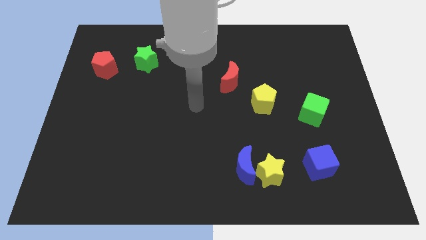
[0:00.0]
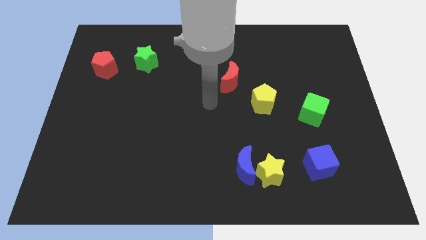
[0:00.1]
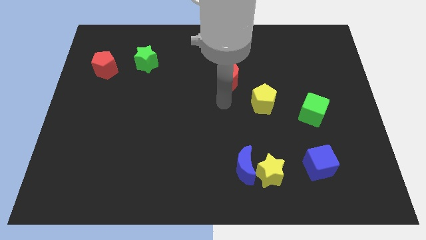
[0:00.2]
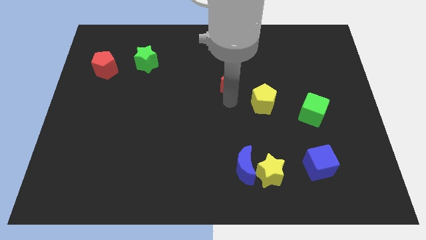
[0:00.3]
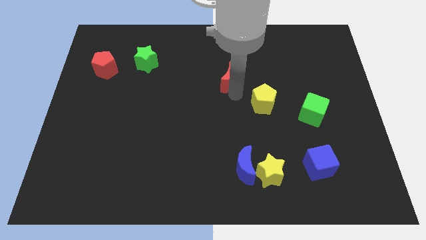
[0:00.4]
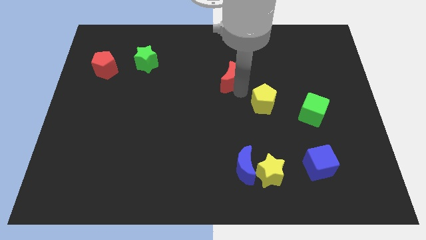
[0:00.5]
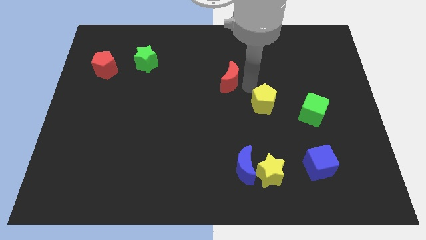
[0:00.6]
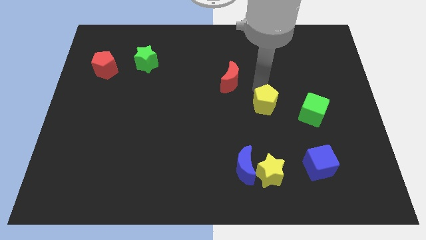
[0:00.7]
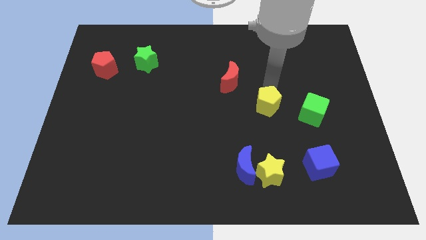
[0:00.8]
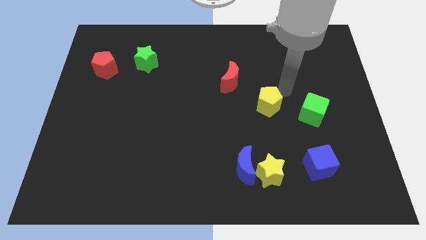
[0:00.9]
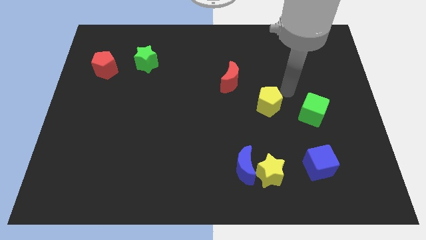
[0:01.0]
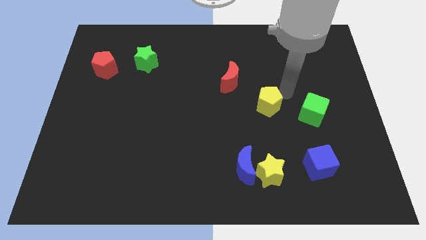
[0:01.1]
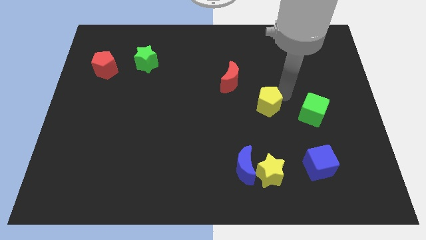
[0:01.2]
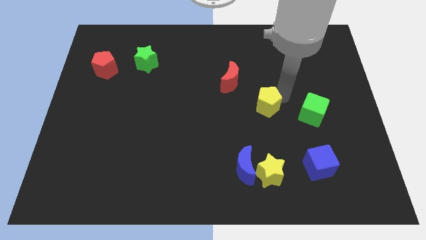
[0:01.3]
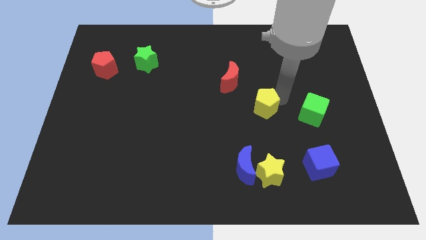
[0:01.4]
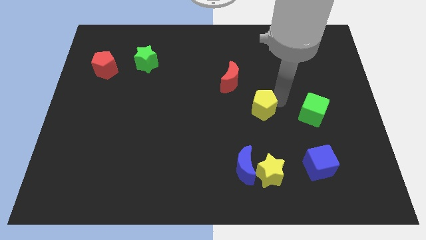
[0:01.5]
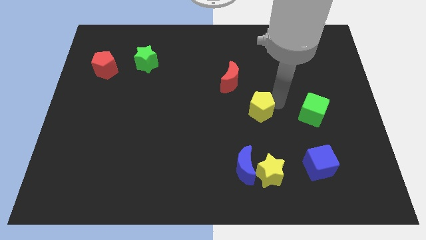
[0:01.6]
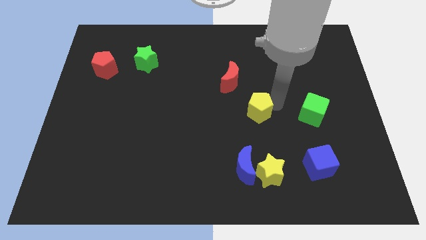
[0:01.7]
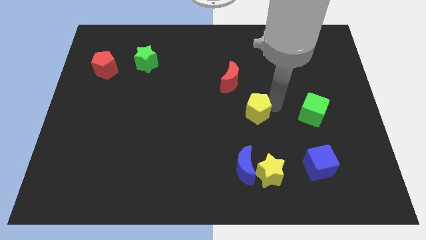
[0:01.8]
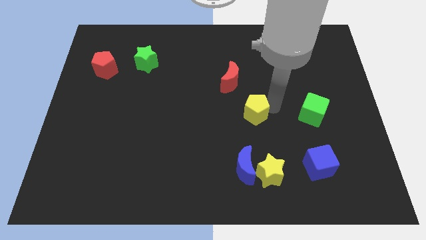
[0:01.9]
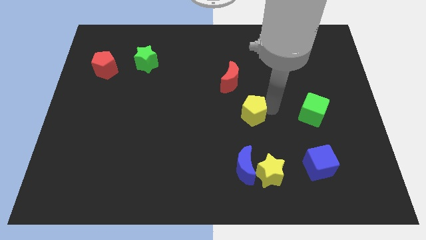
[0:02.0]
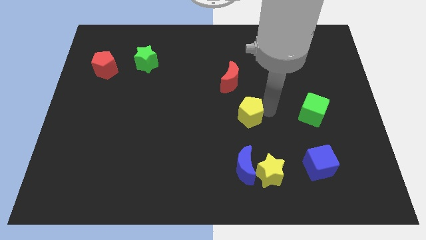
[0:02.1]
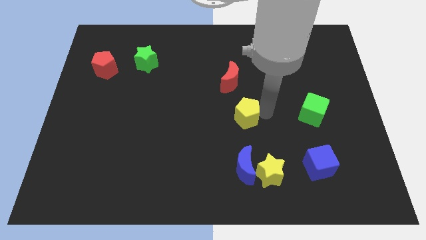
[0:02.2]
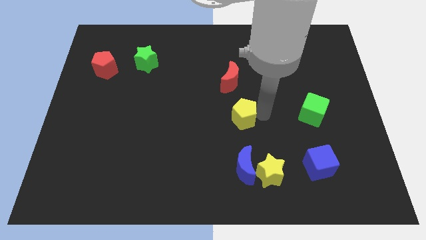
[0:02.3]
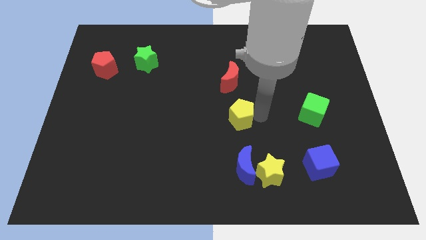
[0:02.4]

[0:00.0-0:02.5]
move the yellow pentagon diagonally down and left a little bit

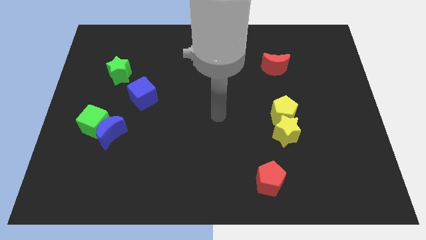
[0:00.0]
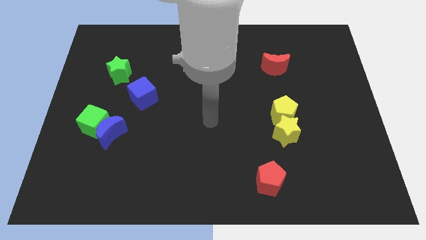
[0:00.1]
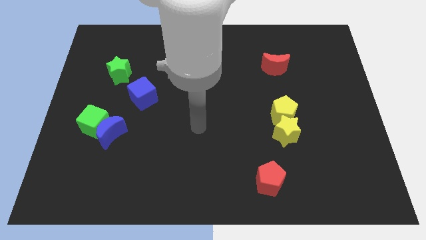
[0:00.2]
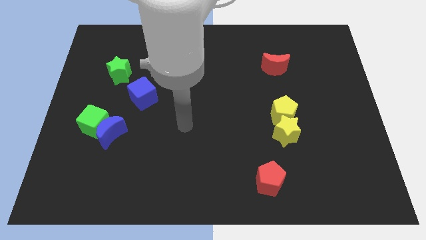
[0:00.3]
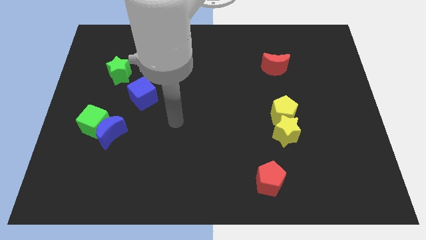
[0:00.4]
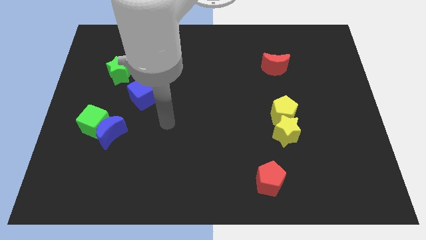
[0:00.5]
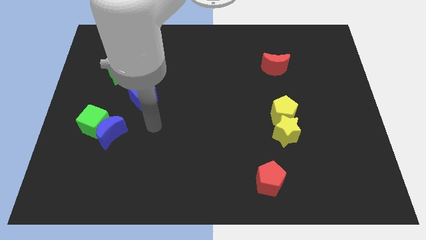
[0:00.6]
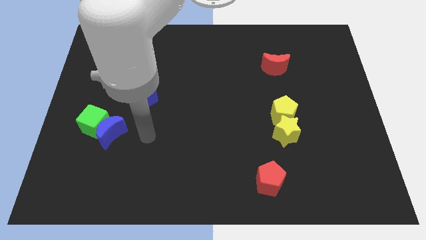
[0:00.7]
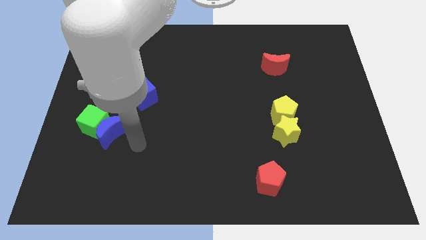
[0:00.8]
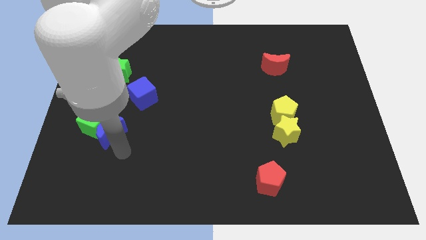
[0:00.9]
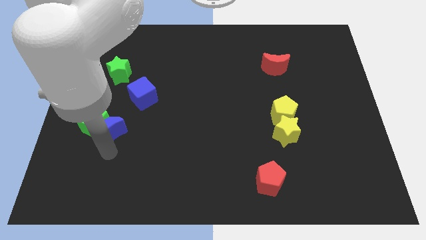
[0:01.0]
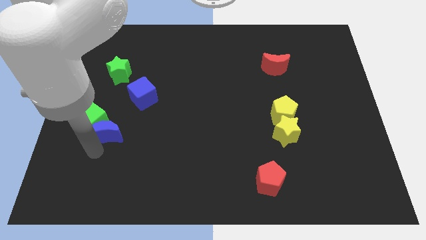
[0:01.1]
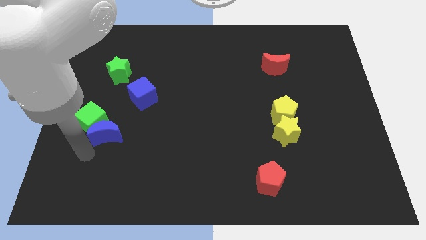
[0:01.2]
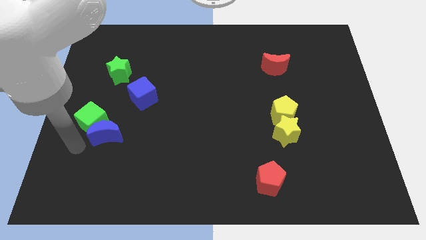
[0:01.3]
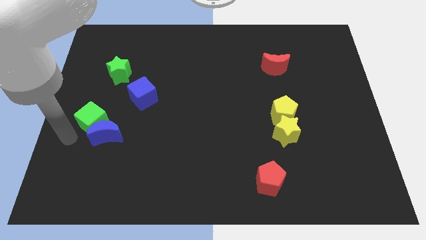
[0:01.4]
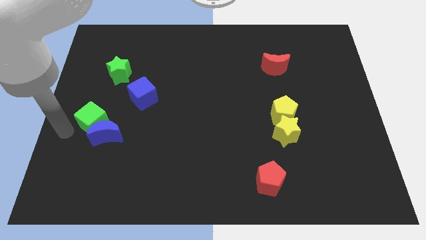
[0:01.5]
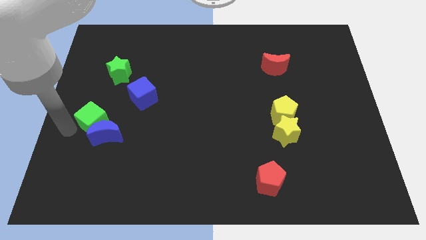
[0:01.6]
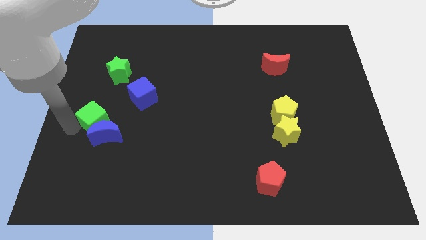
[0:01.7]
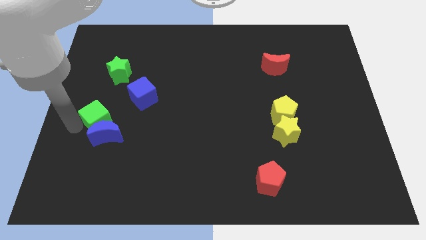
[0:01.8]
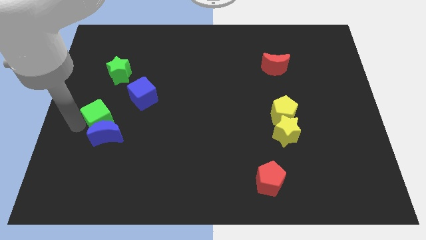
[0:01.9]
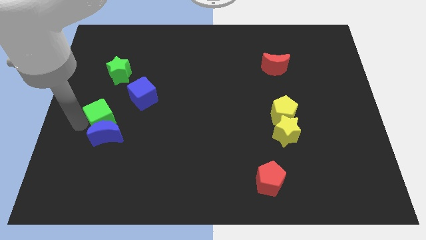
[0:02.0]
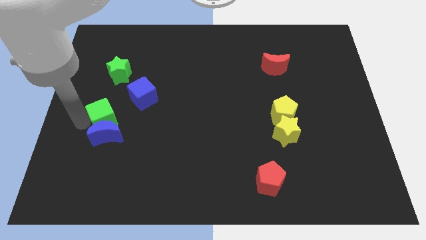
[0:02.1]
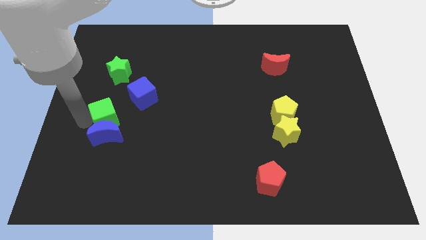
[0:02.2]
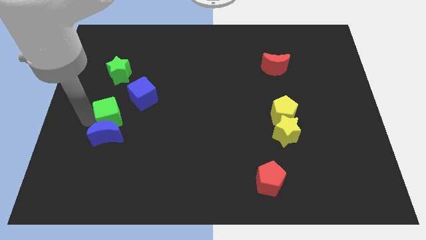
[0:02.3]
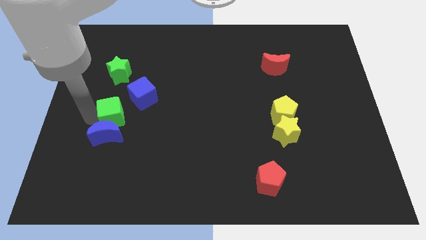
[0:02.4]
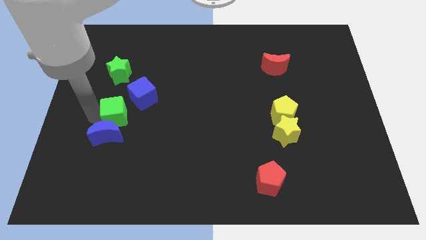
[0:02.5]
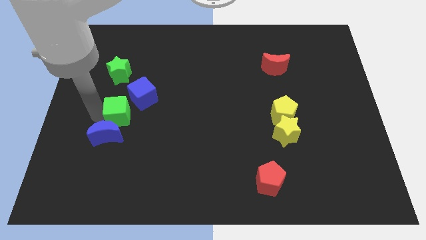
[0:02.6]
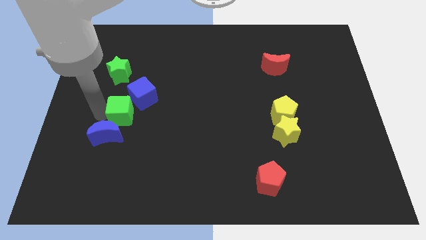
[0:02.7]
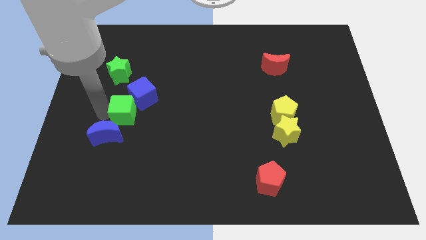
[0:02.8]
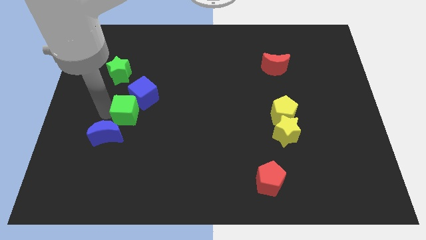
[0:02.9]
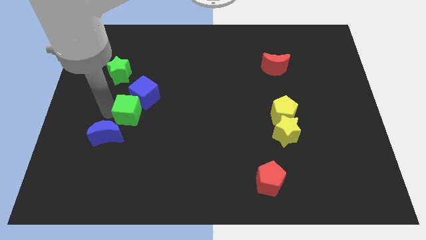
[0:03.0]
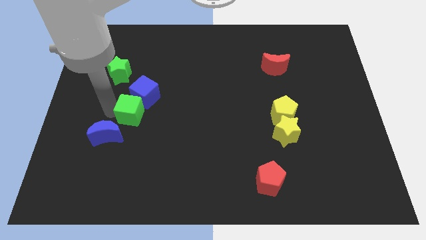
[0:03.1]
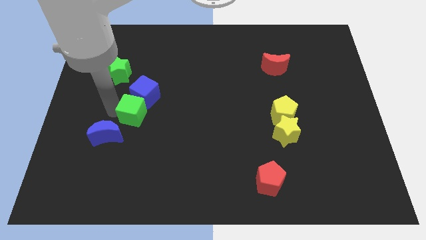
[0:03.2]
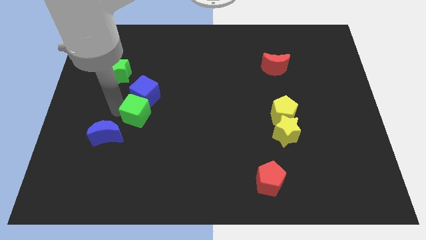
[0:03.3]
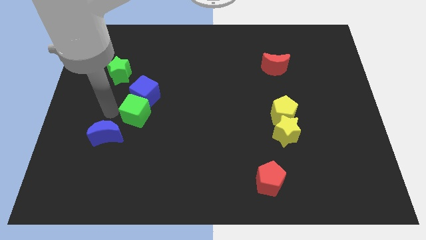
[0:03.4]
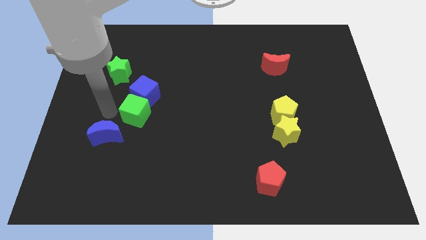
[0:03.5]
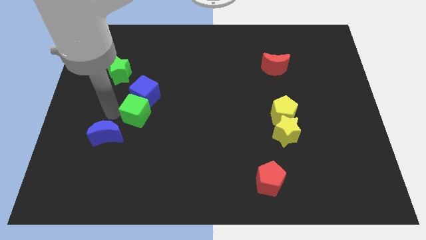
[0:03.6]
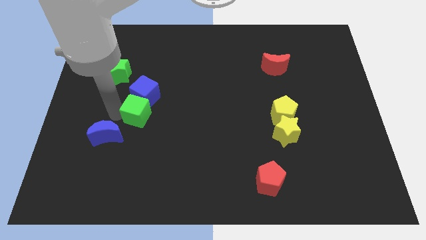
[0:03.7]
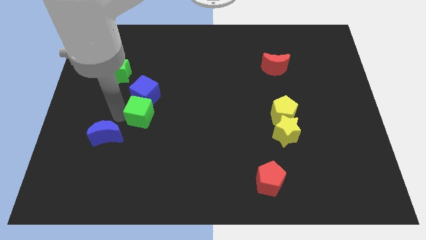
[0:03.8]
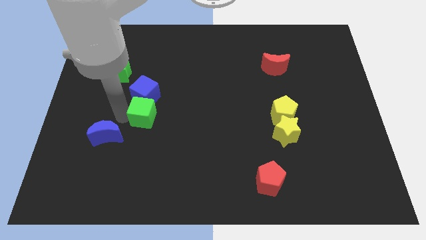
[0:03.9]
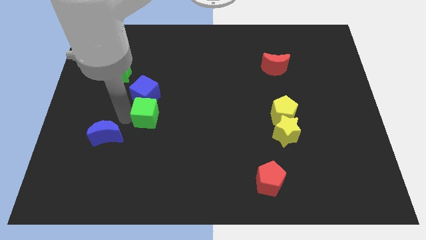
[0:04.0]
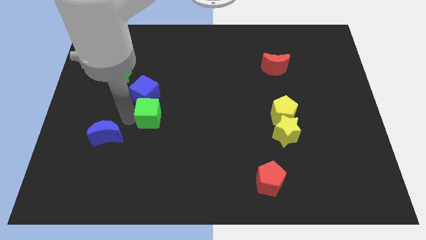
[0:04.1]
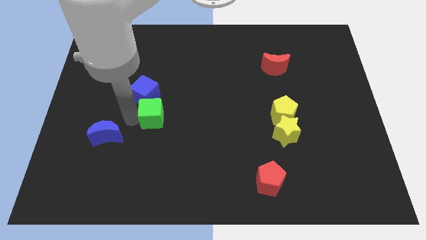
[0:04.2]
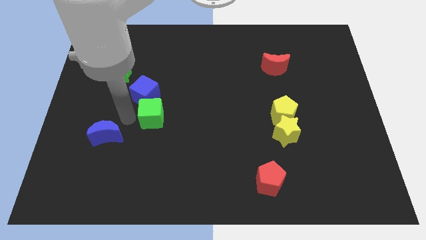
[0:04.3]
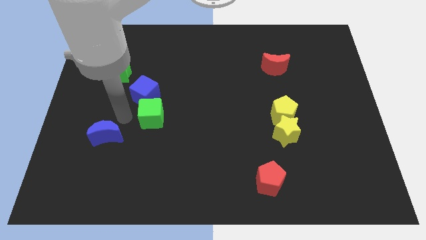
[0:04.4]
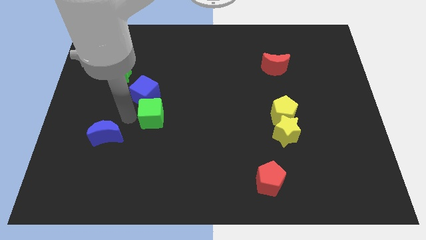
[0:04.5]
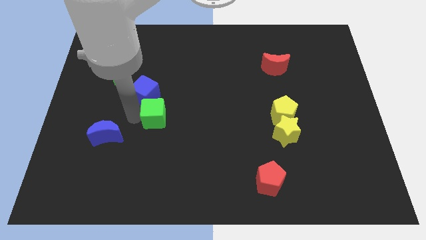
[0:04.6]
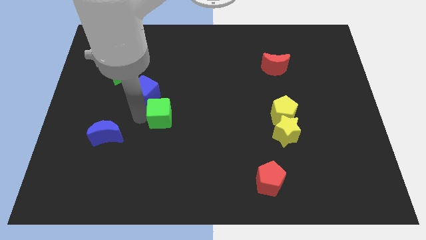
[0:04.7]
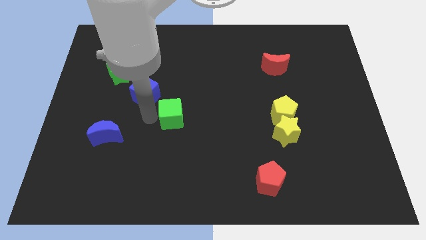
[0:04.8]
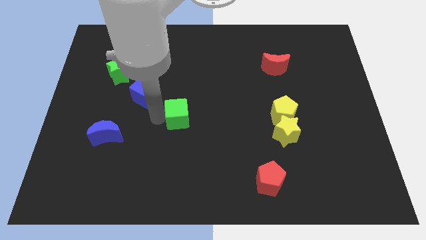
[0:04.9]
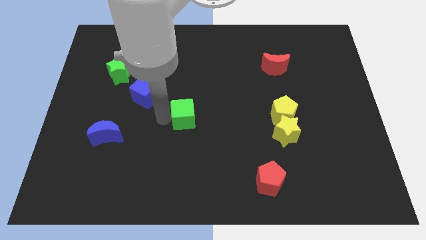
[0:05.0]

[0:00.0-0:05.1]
push the green cube right

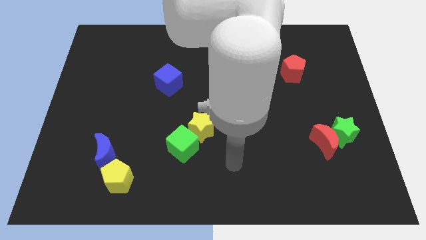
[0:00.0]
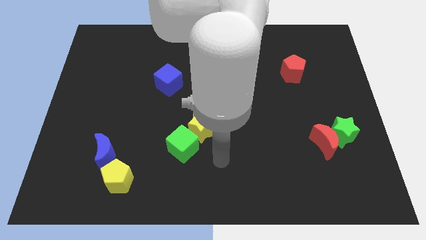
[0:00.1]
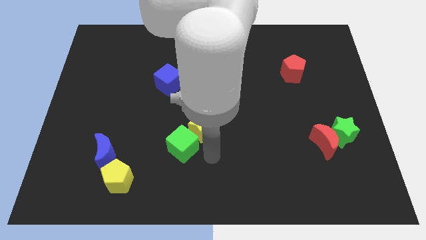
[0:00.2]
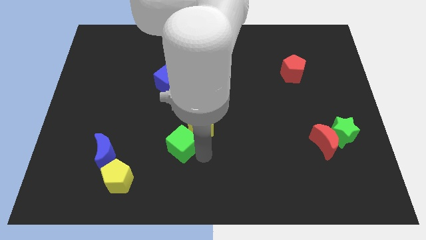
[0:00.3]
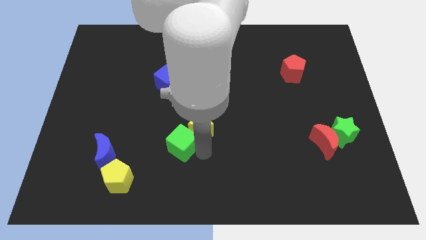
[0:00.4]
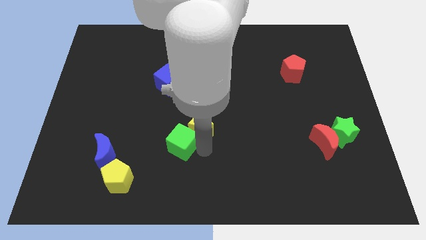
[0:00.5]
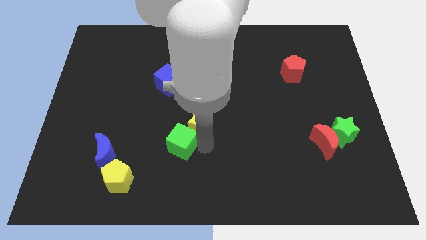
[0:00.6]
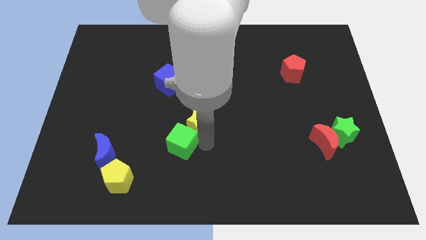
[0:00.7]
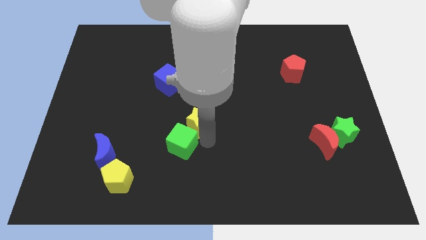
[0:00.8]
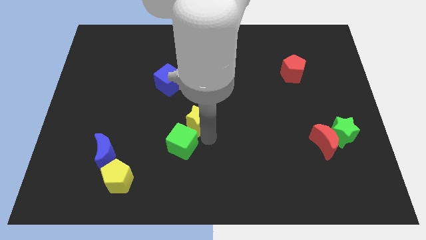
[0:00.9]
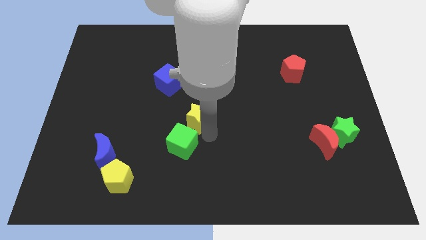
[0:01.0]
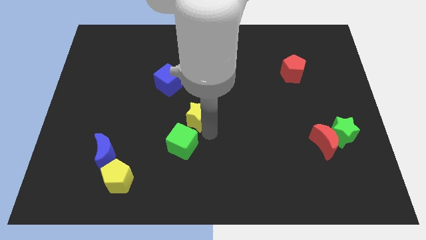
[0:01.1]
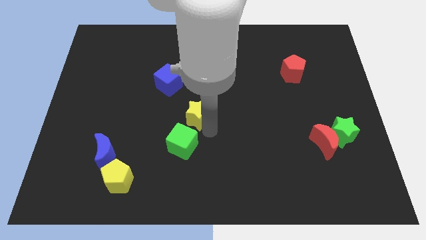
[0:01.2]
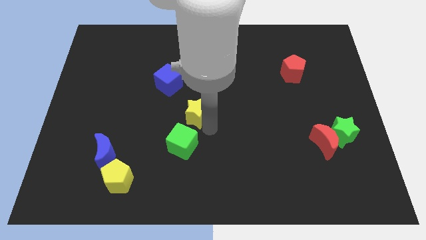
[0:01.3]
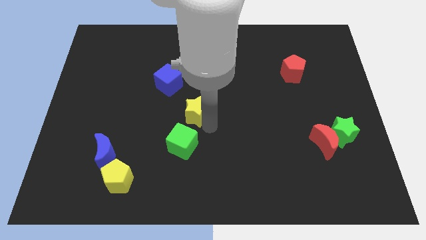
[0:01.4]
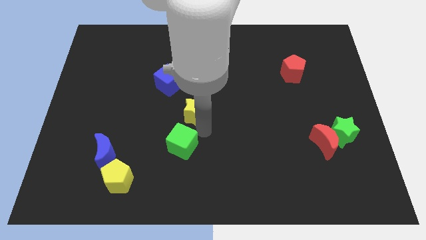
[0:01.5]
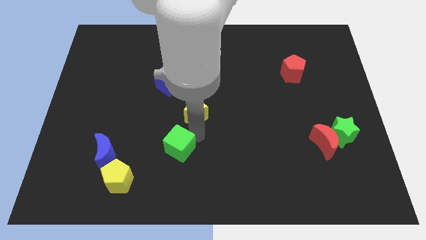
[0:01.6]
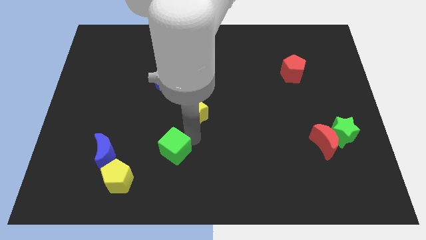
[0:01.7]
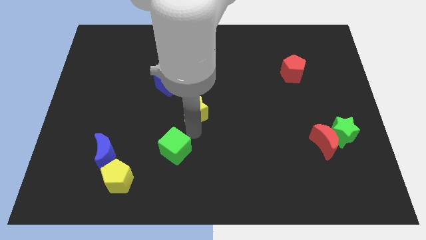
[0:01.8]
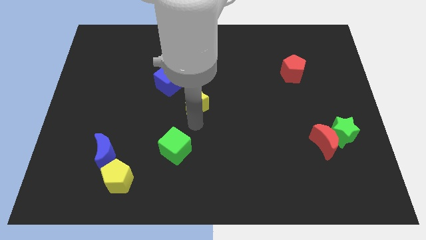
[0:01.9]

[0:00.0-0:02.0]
push the yellow star a little bit up
